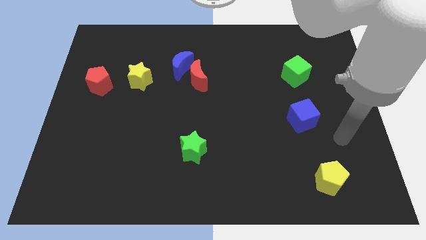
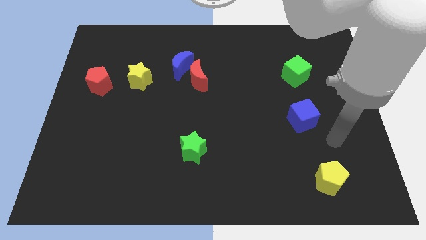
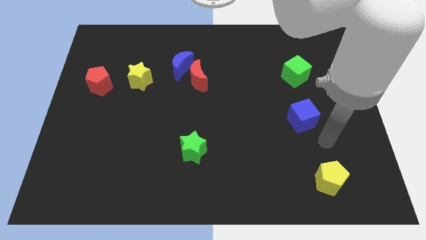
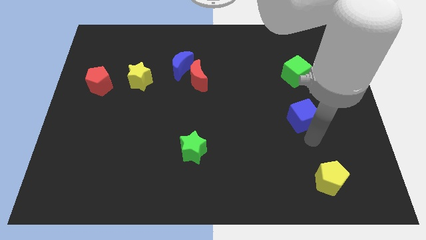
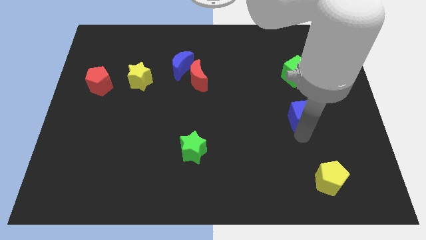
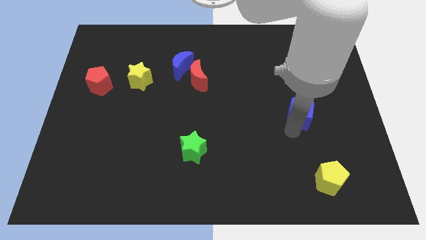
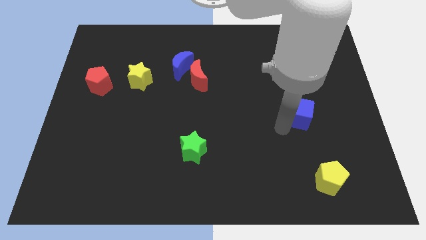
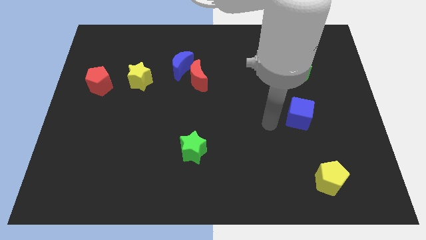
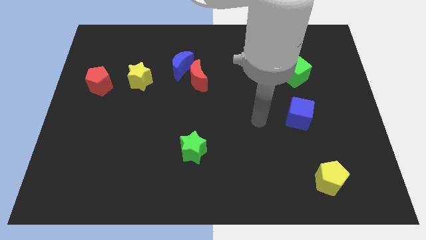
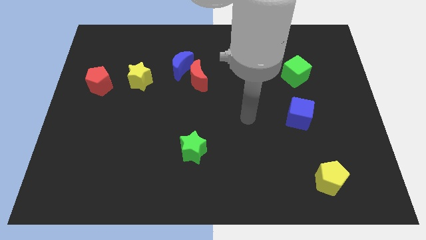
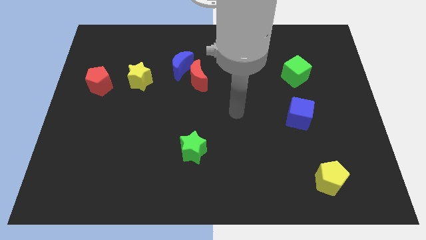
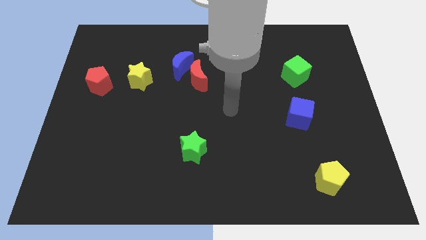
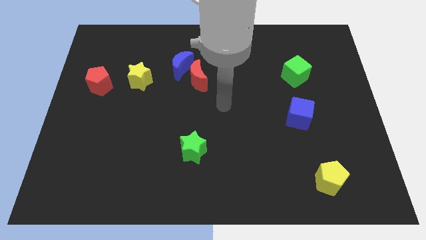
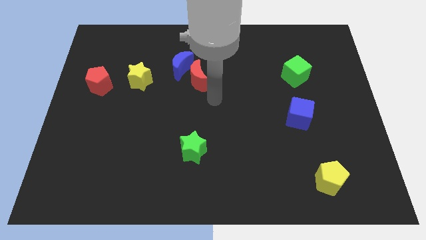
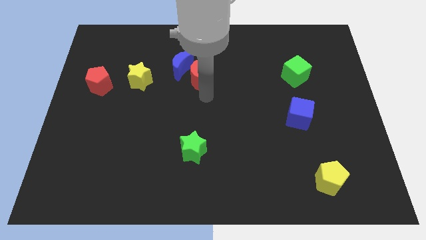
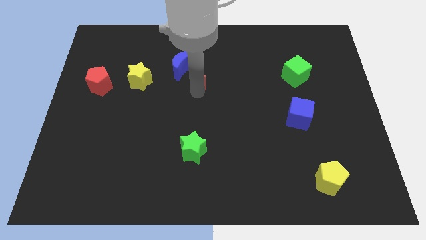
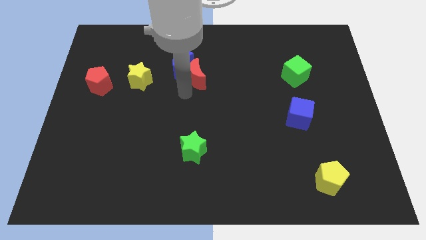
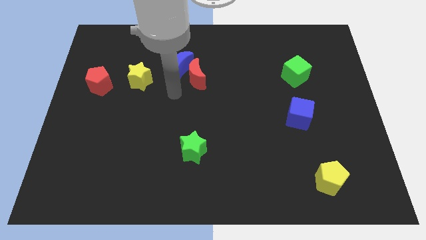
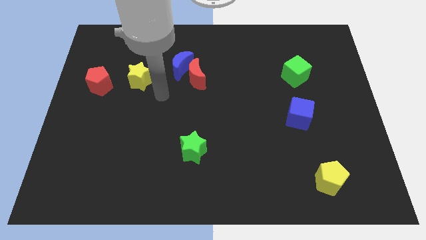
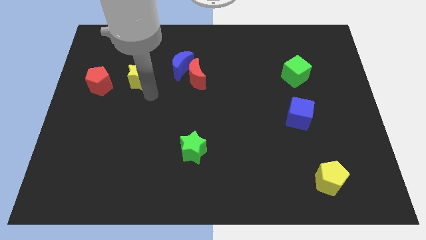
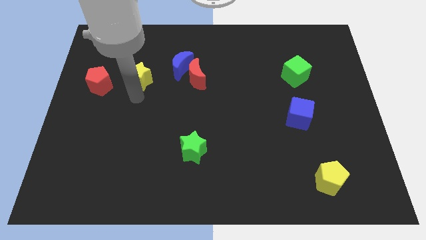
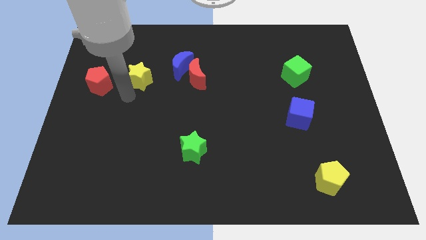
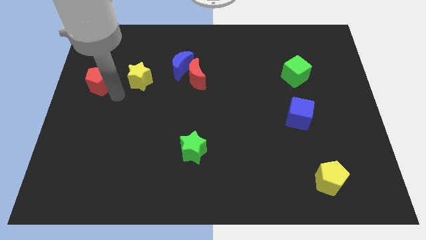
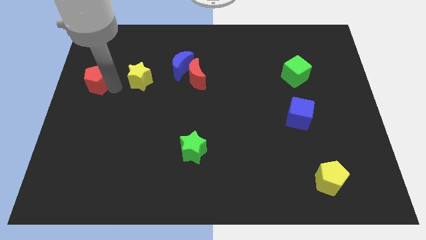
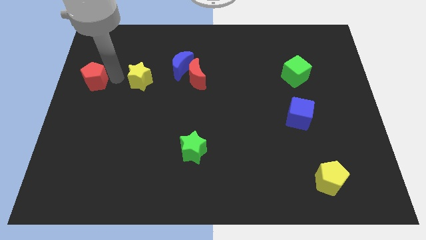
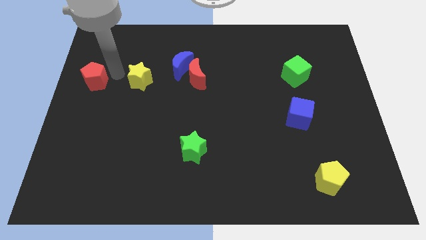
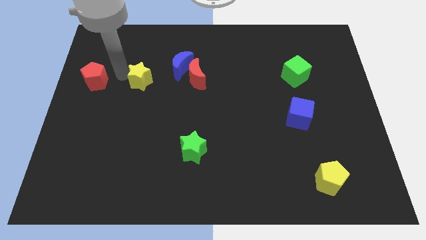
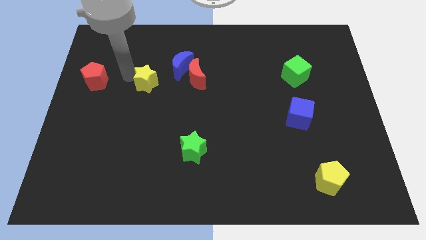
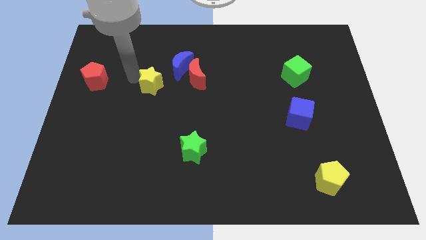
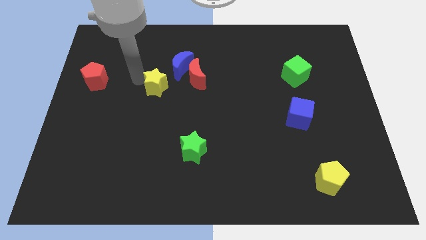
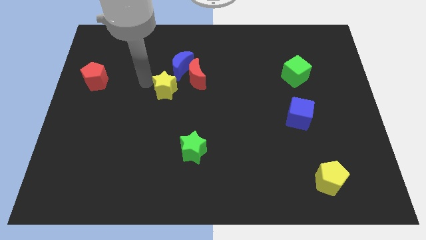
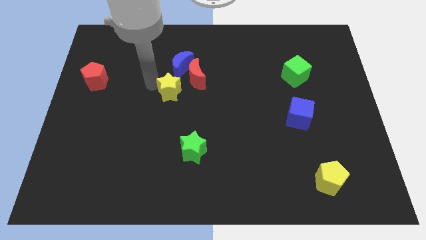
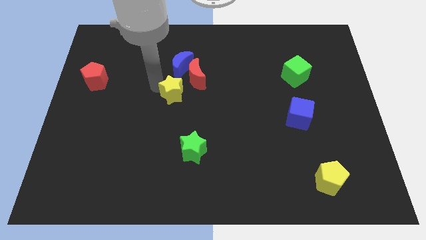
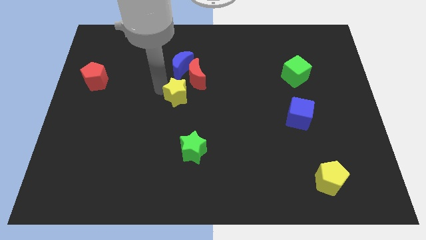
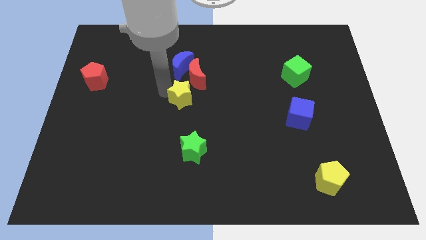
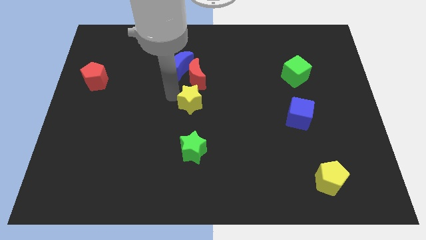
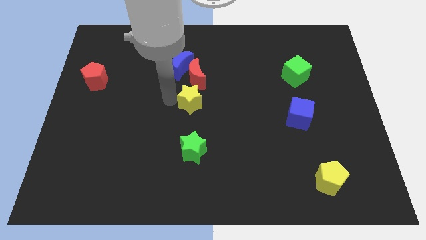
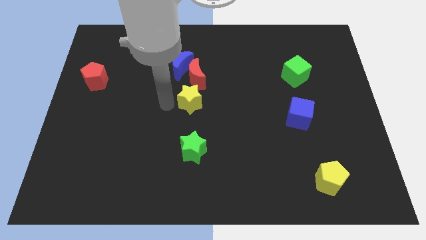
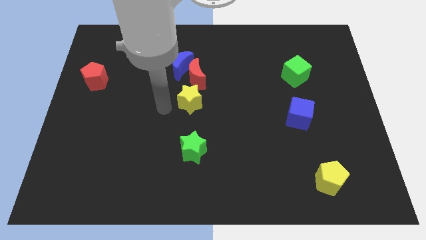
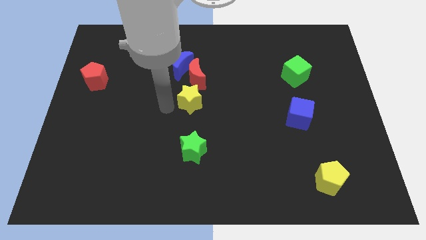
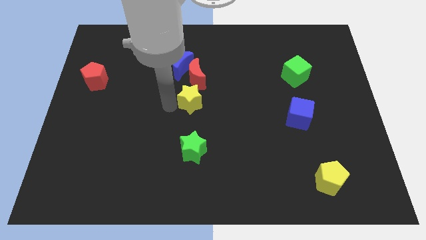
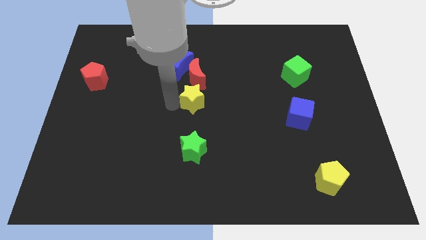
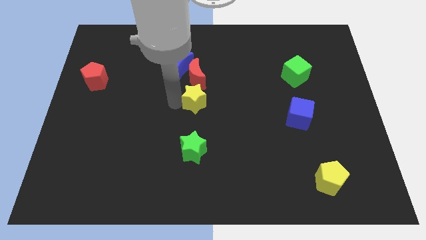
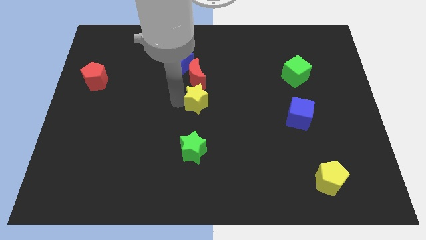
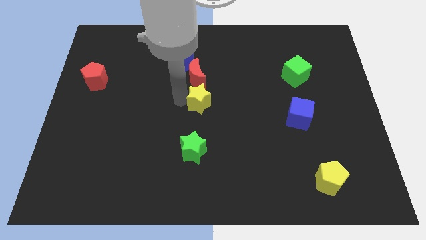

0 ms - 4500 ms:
slide the yellow star diagonally down and to the right of the red moon

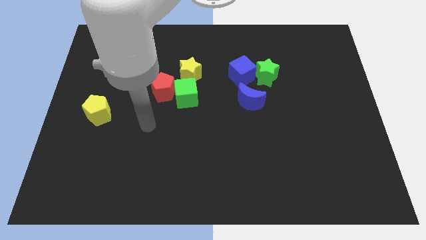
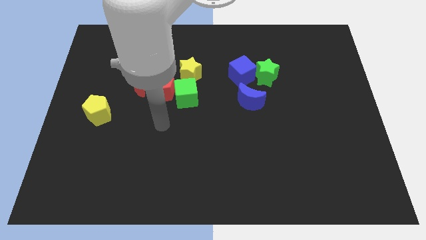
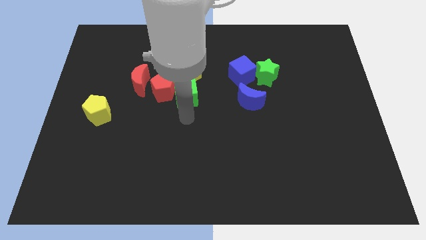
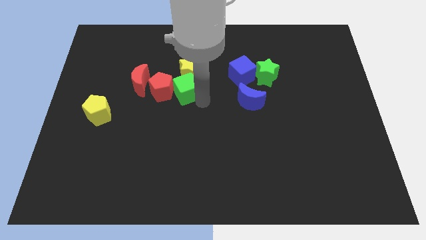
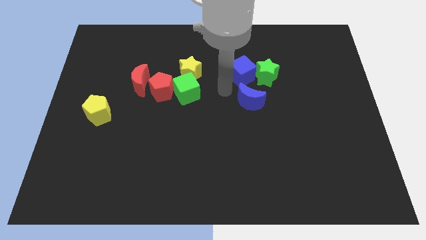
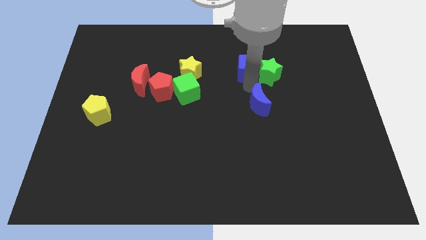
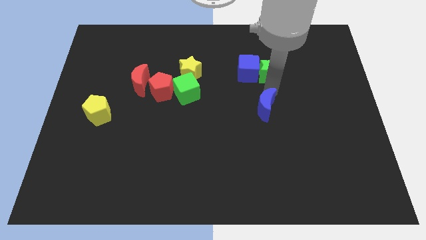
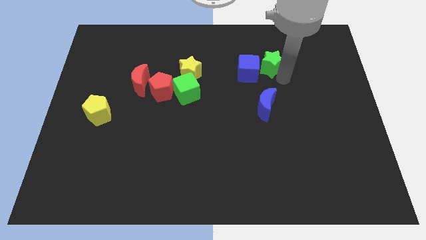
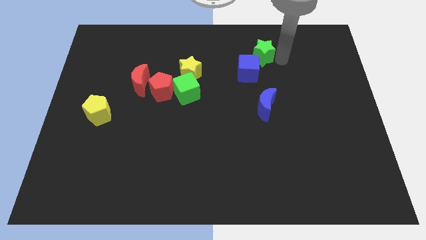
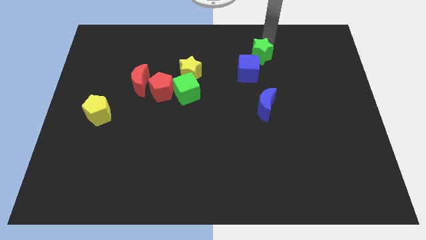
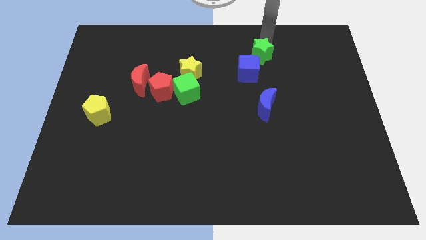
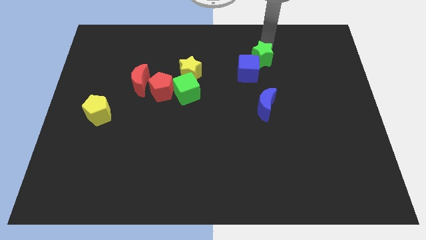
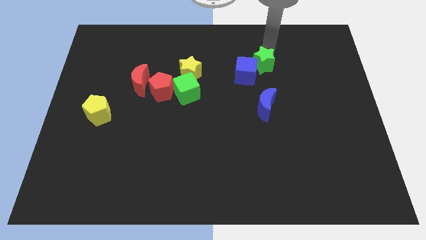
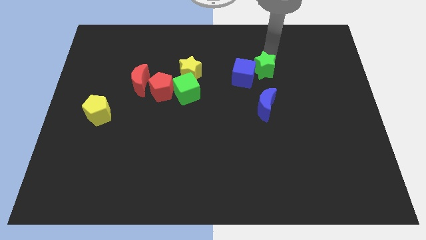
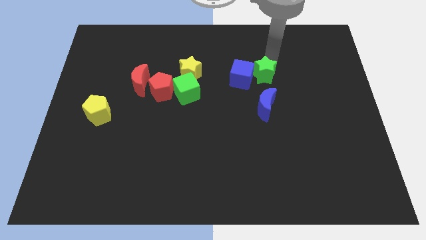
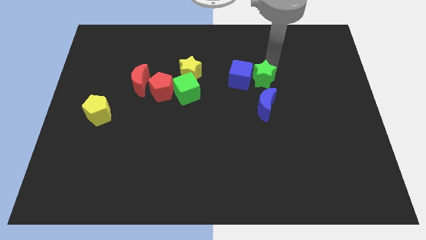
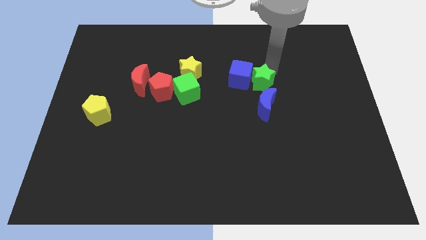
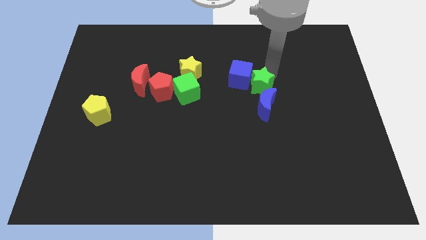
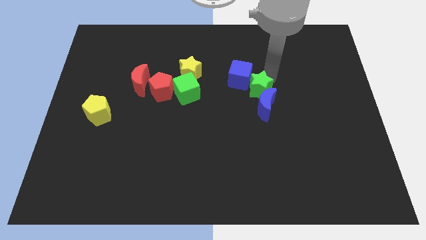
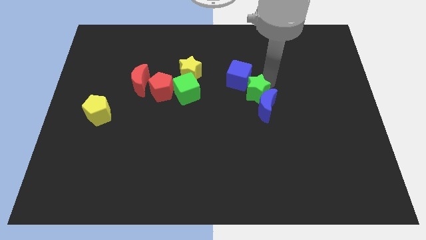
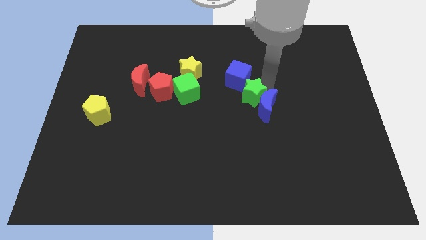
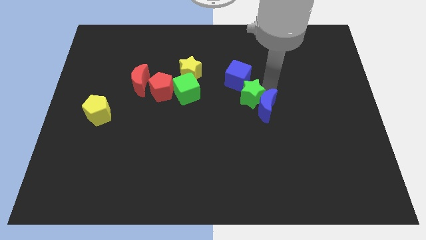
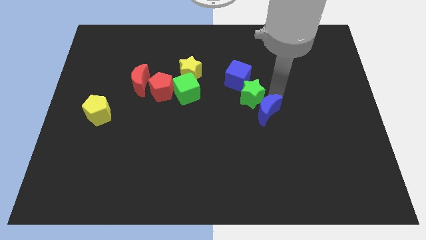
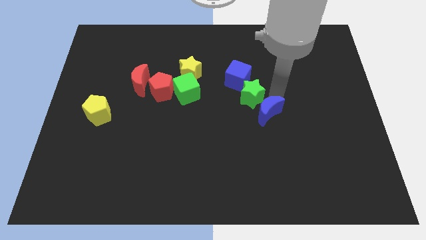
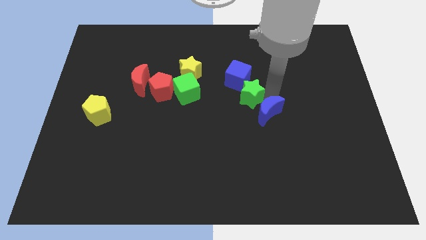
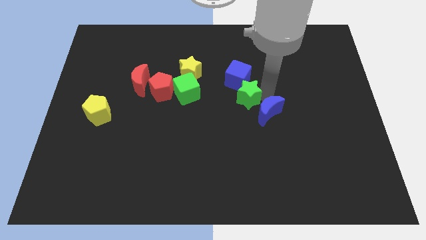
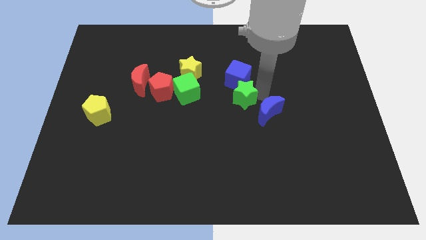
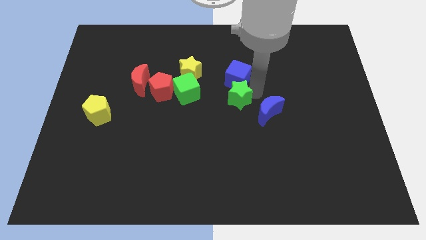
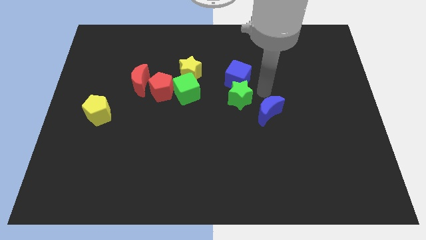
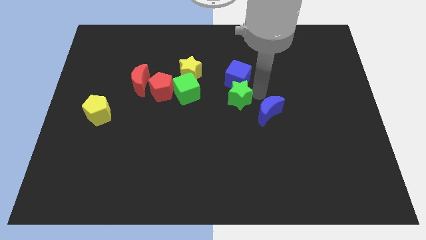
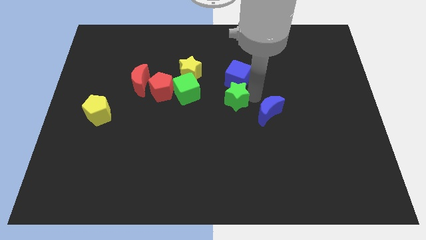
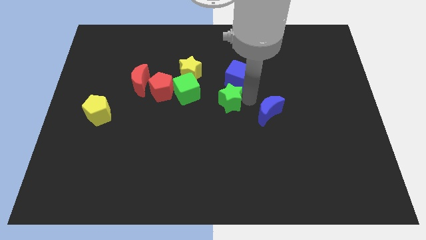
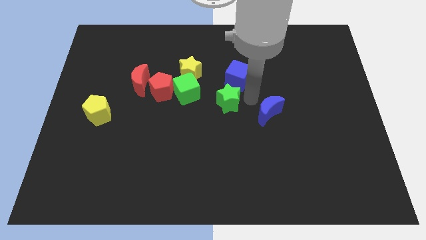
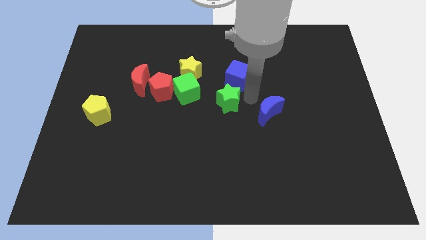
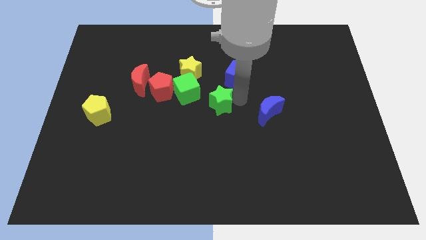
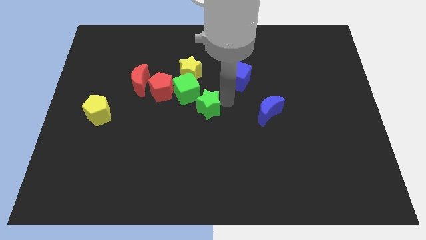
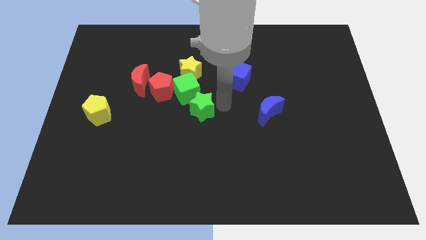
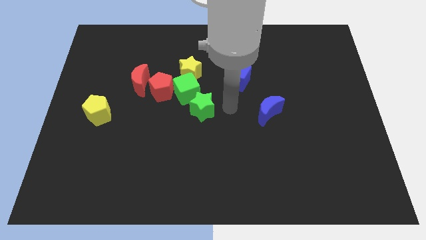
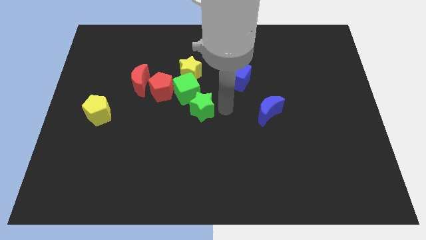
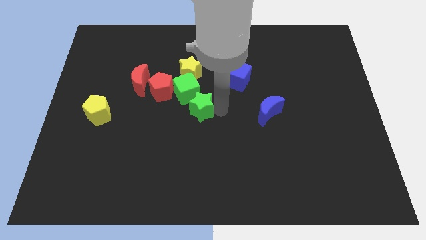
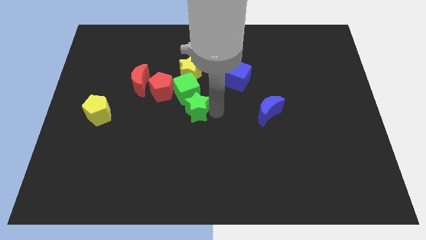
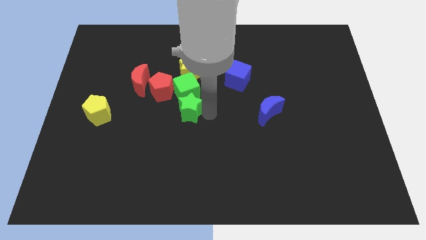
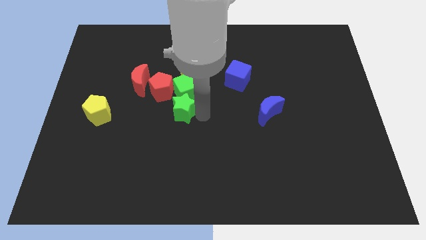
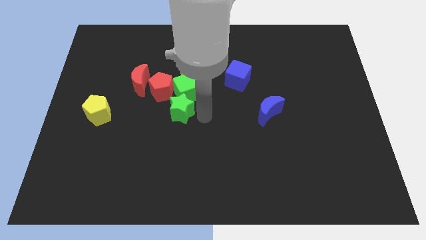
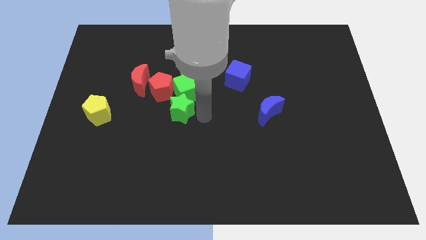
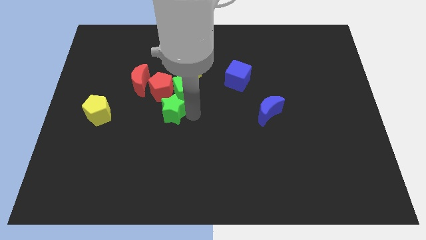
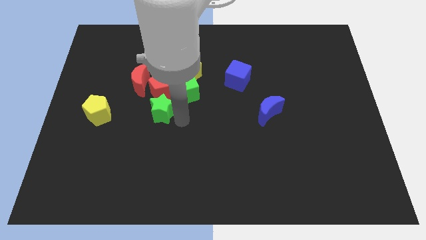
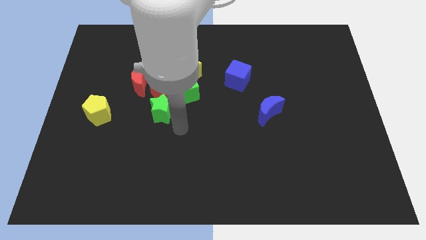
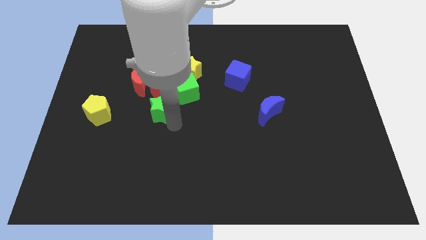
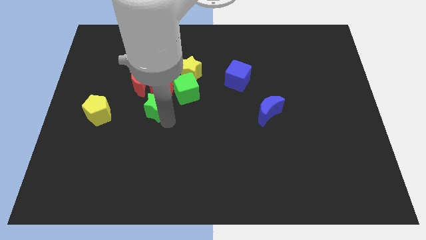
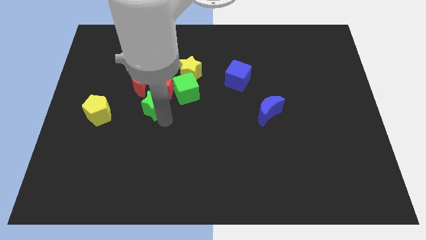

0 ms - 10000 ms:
move the green star just left of the green cube
